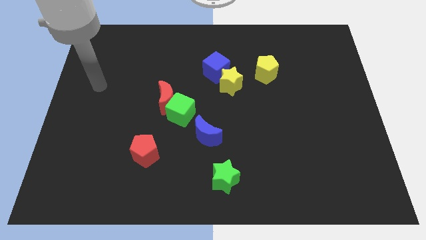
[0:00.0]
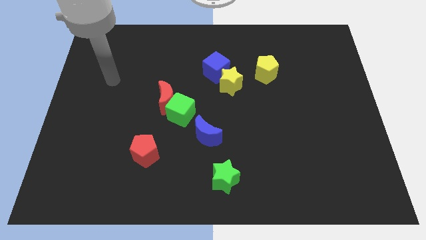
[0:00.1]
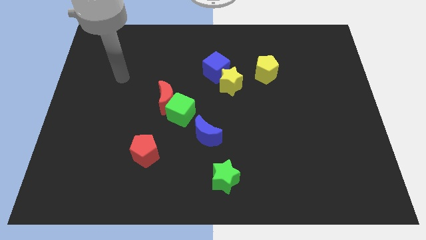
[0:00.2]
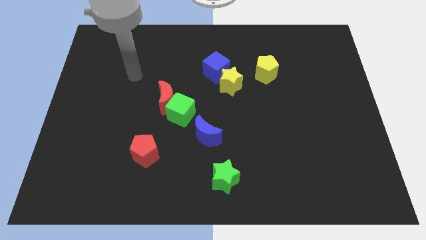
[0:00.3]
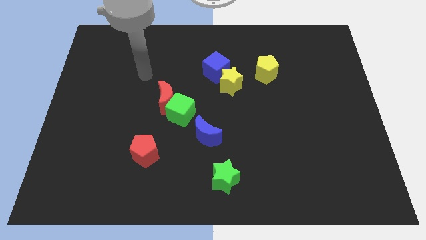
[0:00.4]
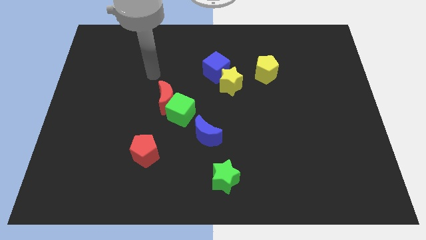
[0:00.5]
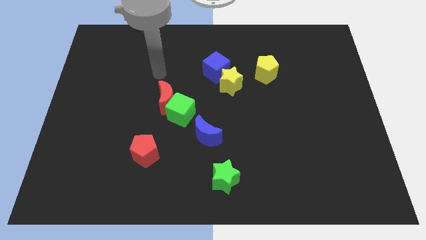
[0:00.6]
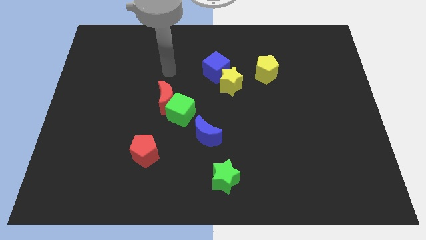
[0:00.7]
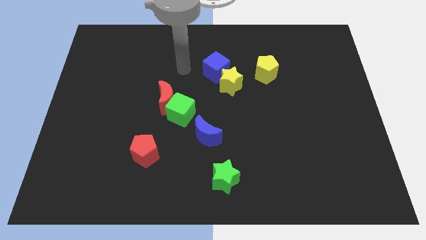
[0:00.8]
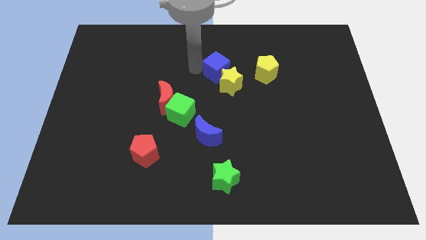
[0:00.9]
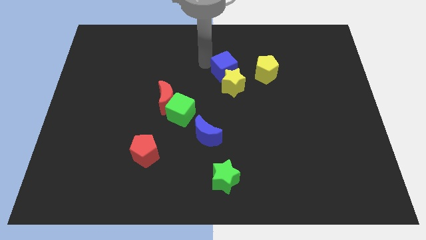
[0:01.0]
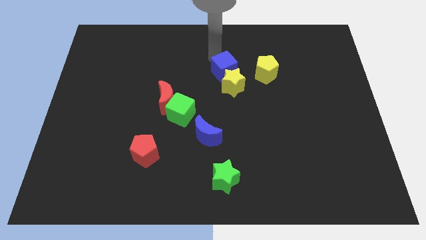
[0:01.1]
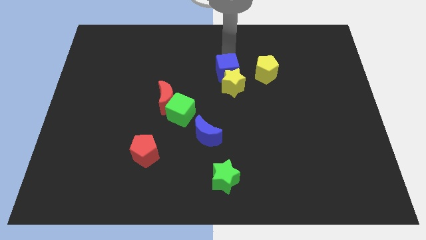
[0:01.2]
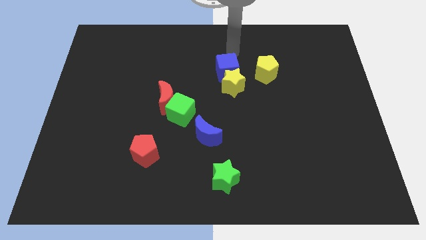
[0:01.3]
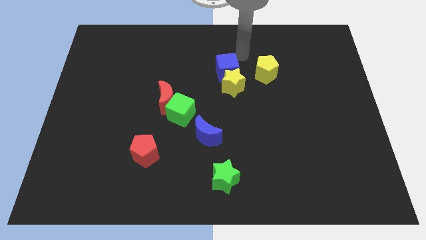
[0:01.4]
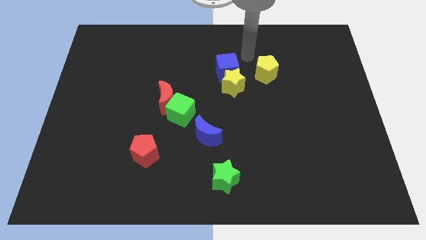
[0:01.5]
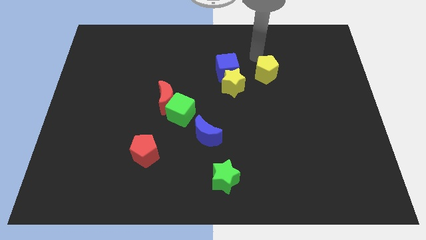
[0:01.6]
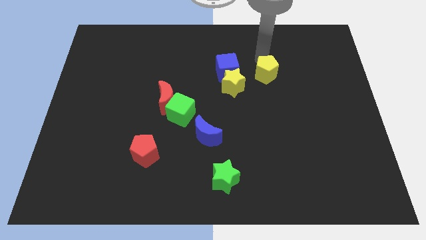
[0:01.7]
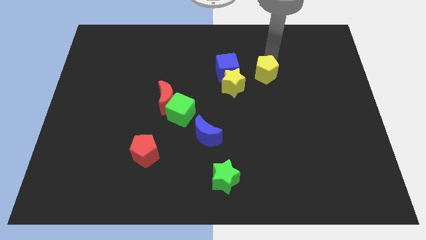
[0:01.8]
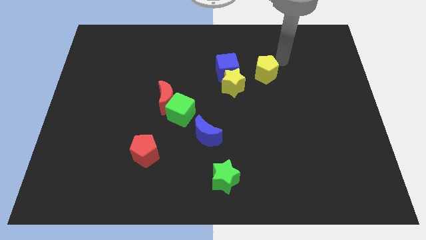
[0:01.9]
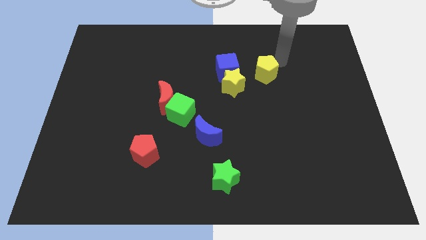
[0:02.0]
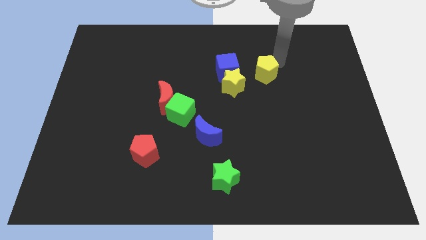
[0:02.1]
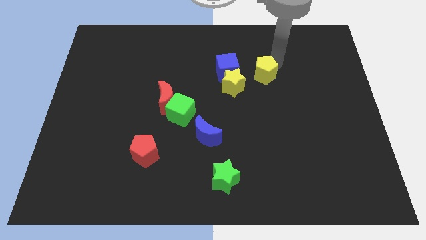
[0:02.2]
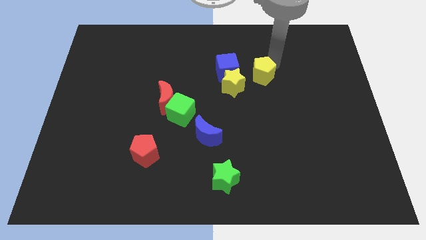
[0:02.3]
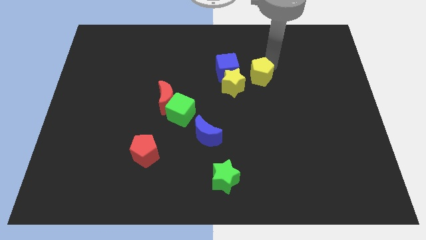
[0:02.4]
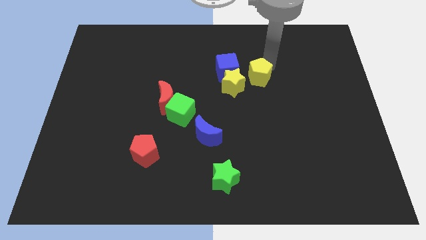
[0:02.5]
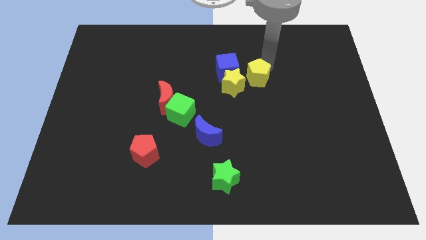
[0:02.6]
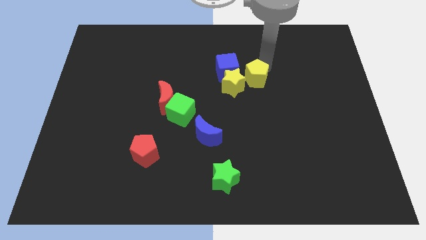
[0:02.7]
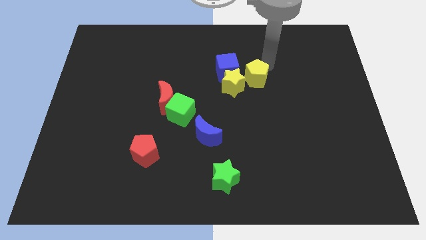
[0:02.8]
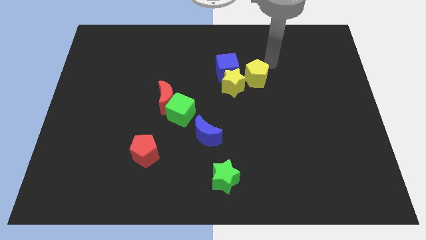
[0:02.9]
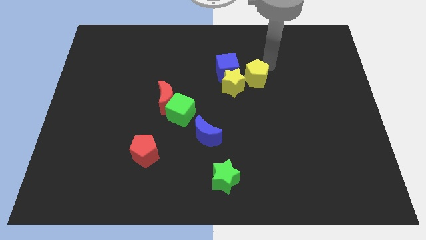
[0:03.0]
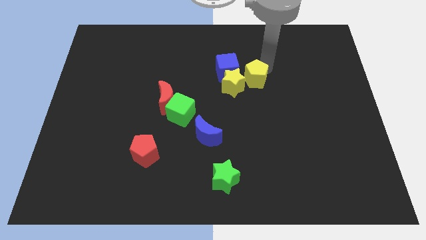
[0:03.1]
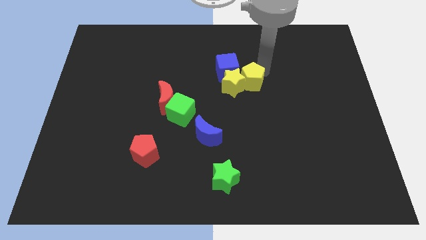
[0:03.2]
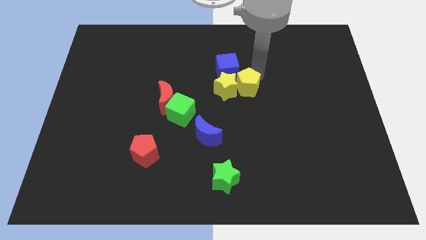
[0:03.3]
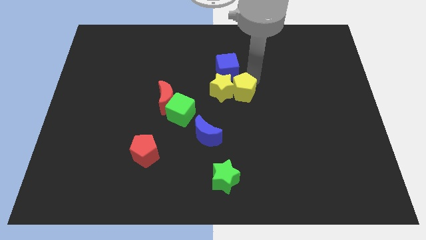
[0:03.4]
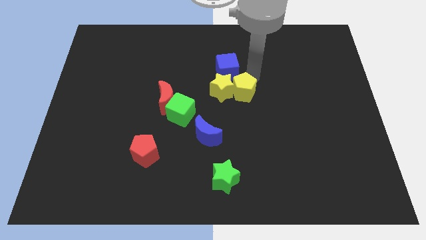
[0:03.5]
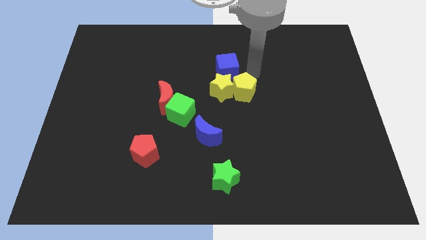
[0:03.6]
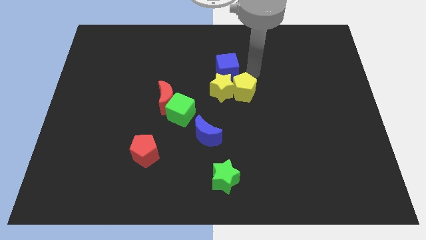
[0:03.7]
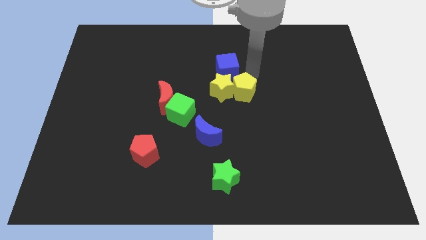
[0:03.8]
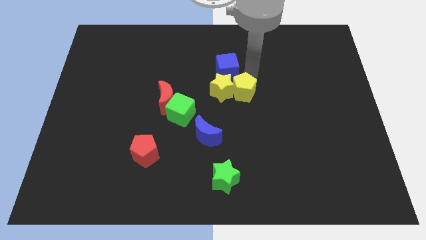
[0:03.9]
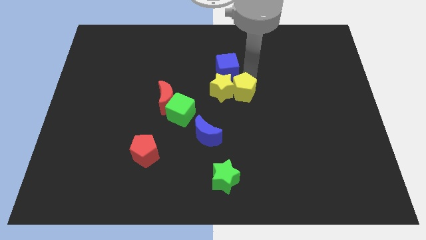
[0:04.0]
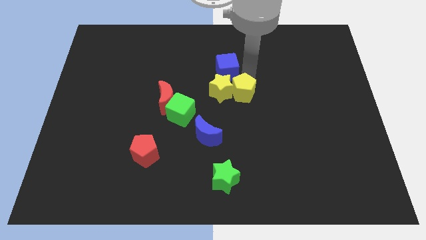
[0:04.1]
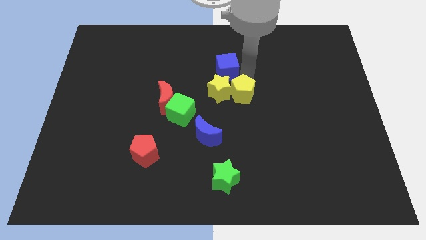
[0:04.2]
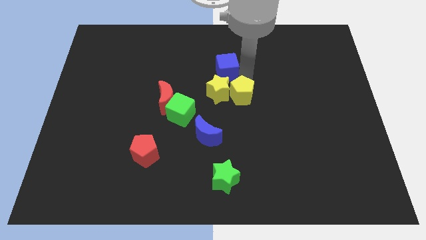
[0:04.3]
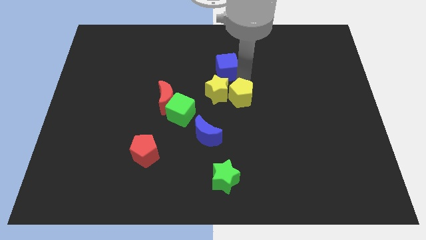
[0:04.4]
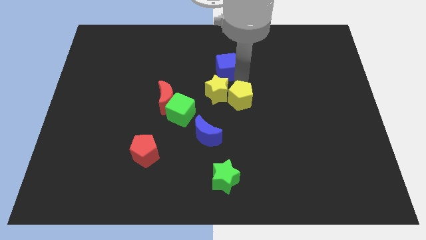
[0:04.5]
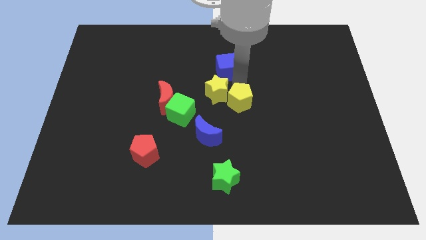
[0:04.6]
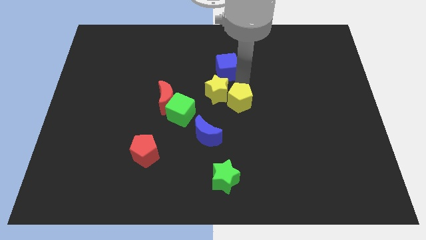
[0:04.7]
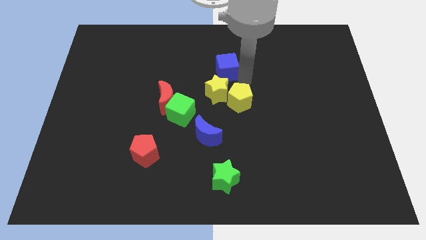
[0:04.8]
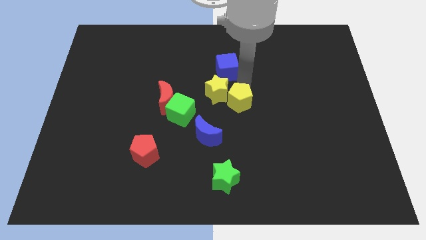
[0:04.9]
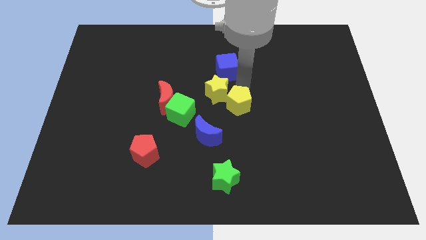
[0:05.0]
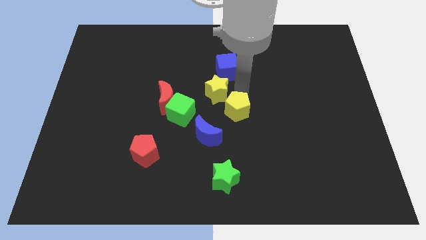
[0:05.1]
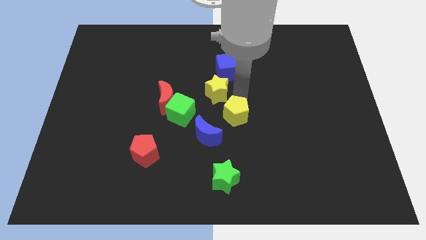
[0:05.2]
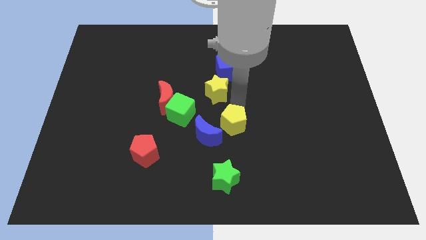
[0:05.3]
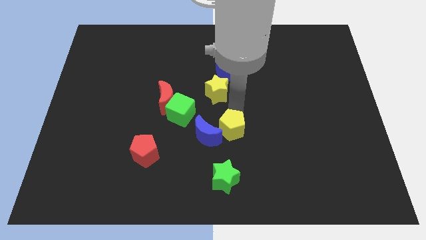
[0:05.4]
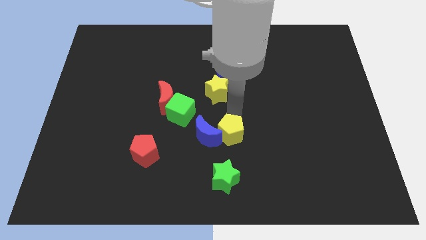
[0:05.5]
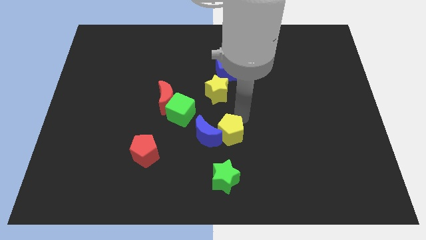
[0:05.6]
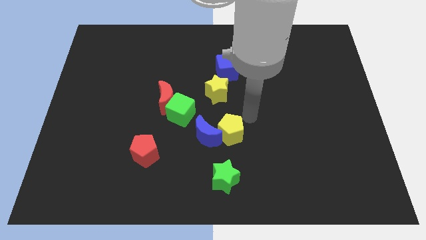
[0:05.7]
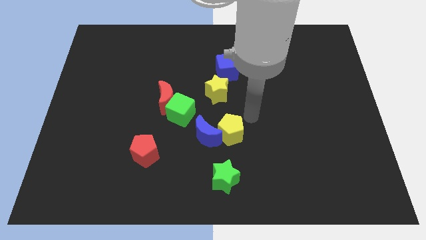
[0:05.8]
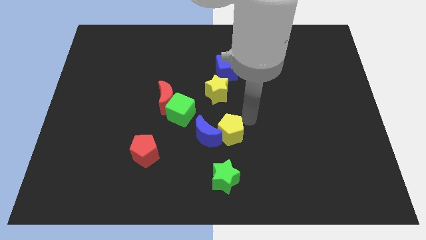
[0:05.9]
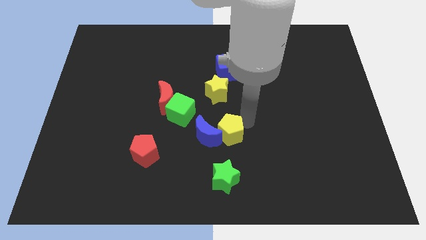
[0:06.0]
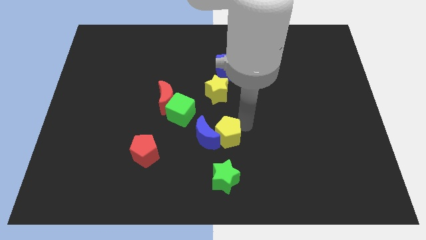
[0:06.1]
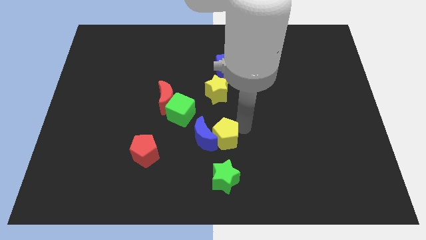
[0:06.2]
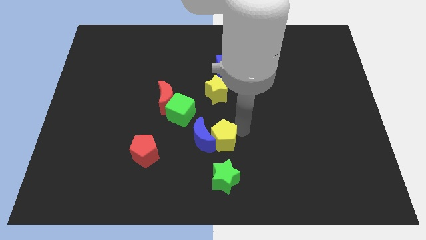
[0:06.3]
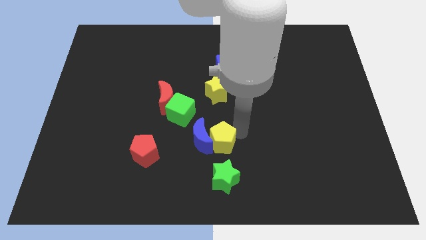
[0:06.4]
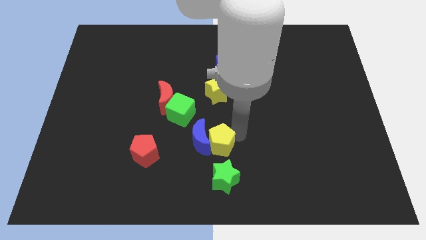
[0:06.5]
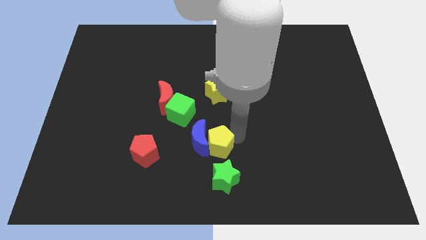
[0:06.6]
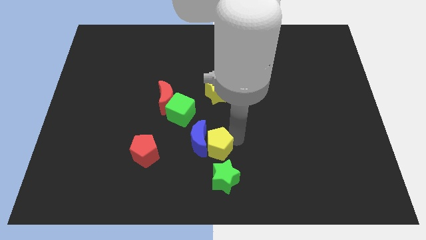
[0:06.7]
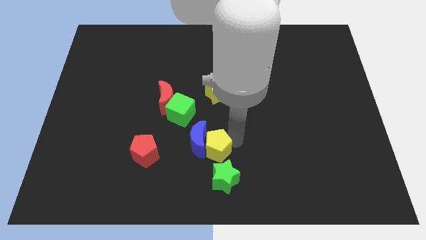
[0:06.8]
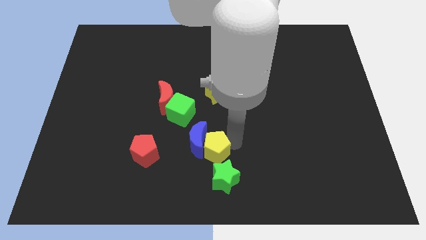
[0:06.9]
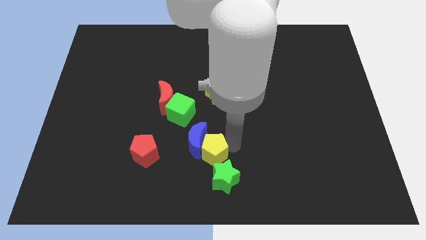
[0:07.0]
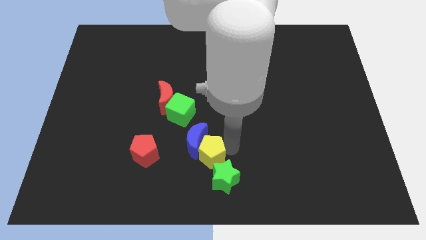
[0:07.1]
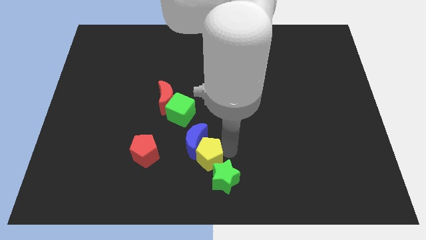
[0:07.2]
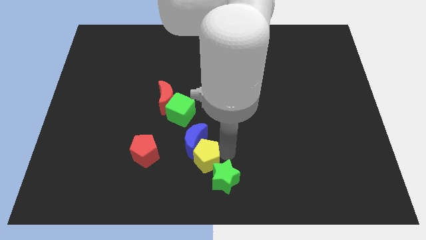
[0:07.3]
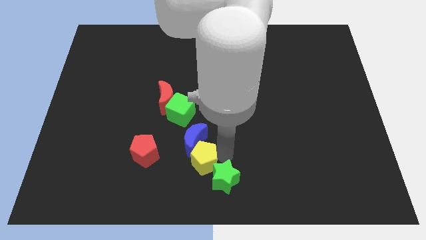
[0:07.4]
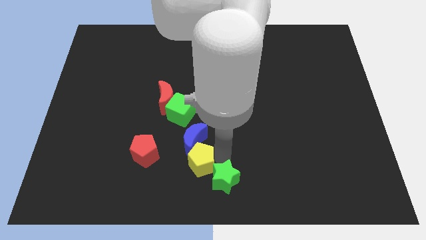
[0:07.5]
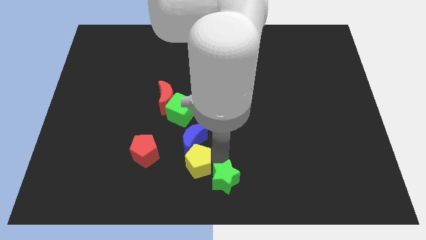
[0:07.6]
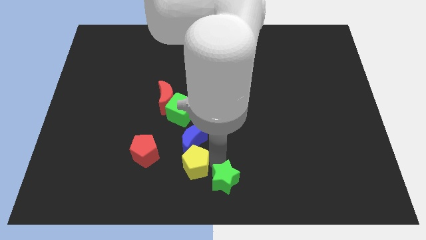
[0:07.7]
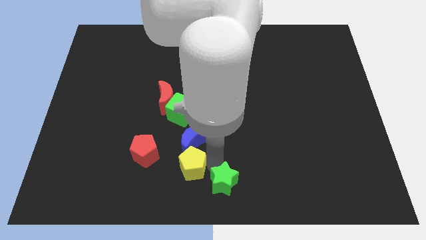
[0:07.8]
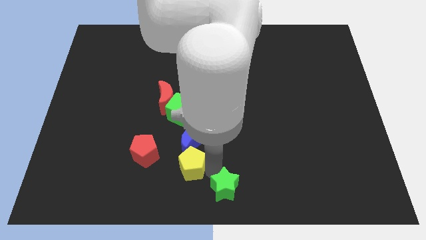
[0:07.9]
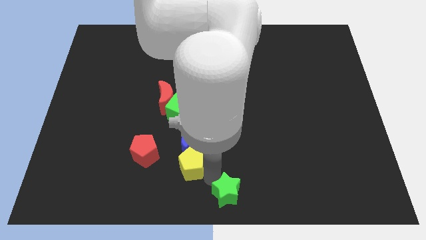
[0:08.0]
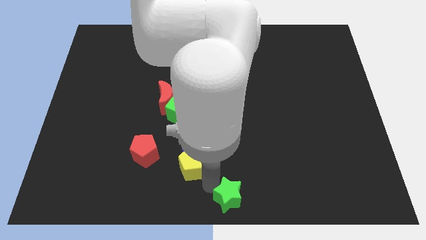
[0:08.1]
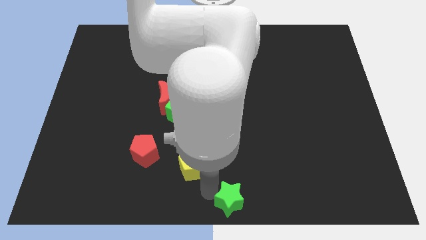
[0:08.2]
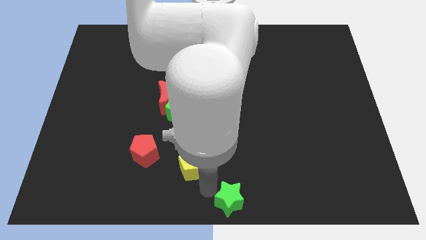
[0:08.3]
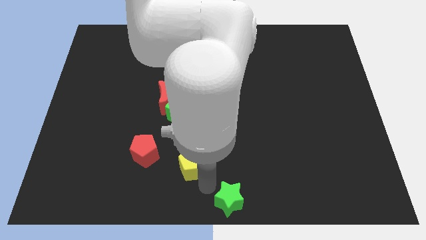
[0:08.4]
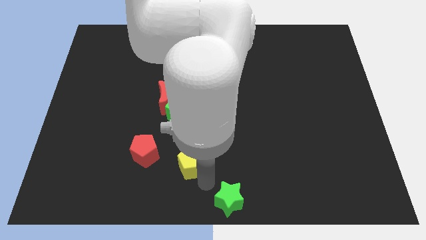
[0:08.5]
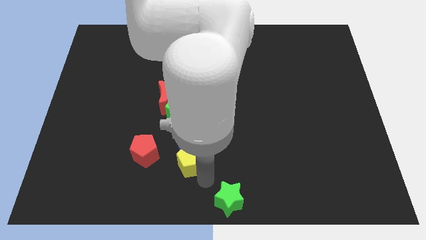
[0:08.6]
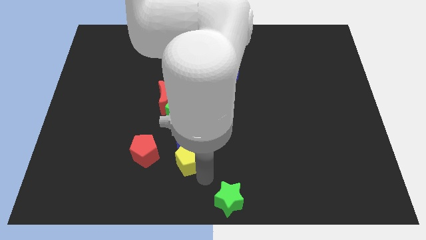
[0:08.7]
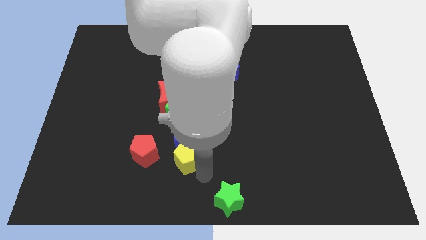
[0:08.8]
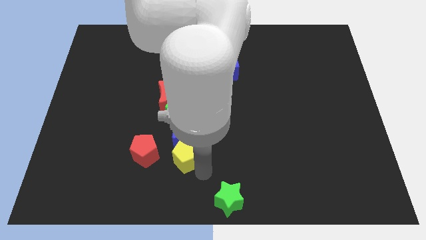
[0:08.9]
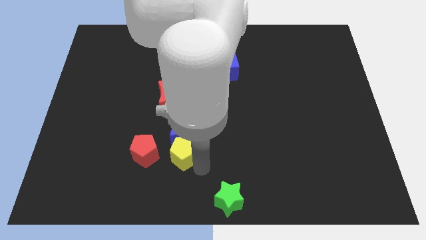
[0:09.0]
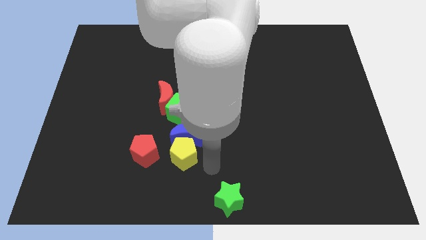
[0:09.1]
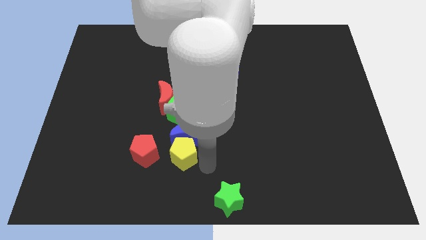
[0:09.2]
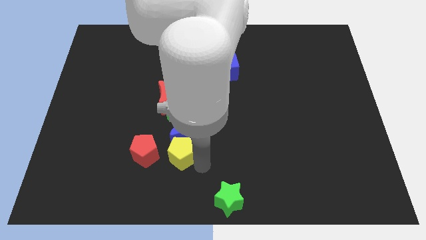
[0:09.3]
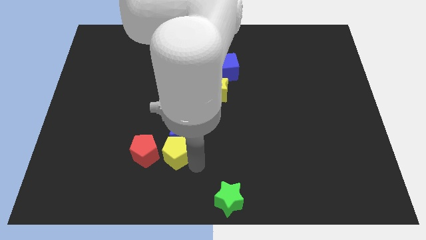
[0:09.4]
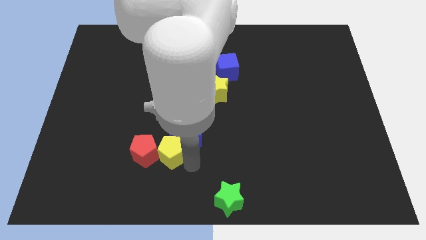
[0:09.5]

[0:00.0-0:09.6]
put the yellow pentagon to the left of the blue moon
